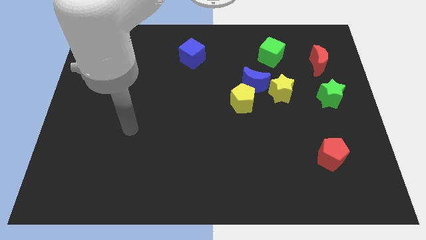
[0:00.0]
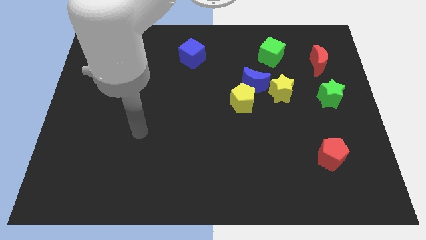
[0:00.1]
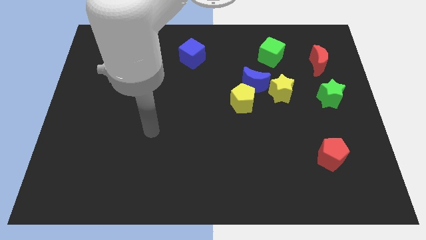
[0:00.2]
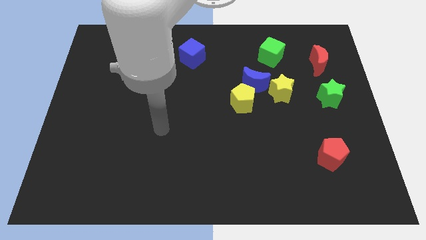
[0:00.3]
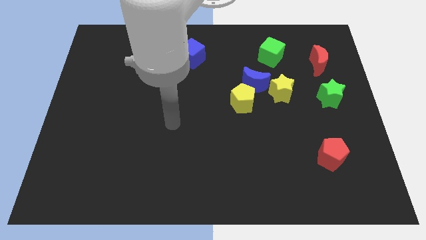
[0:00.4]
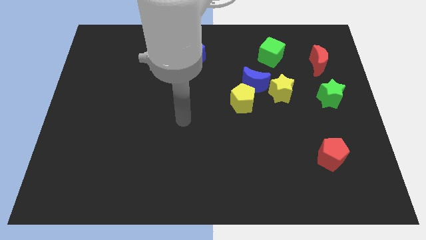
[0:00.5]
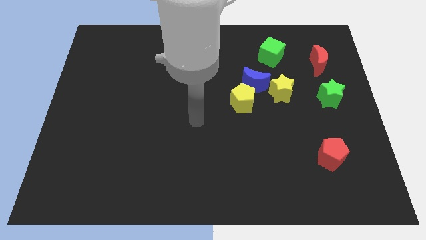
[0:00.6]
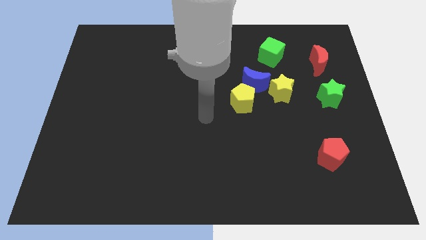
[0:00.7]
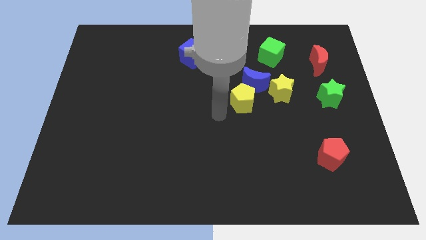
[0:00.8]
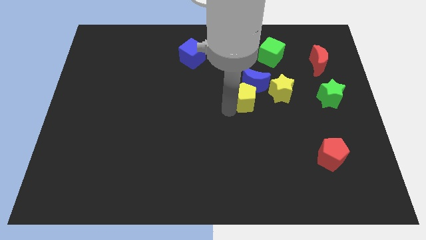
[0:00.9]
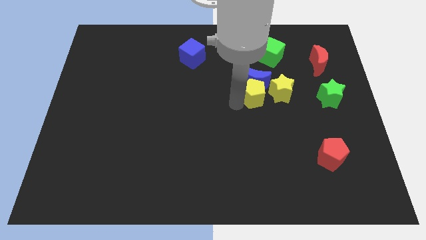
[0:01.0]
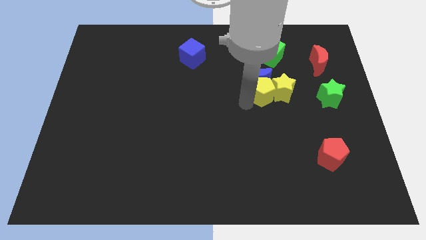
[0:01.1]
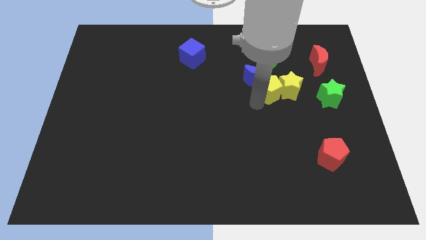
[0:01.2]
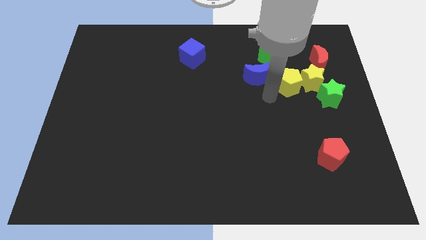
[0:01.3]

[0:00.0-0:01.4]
separate the blue moon from the yellow pentagon and yellow star

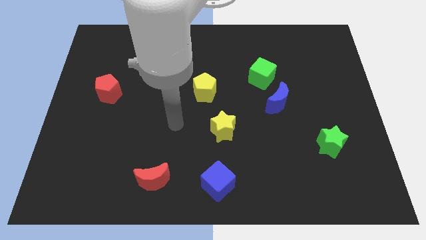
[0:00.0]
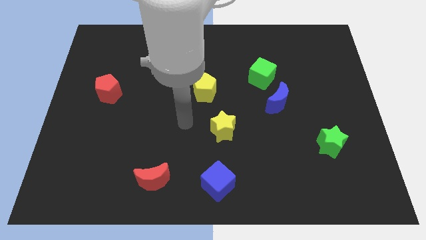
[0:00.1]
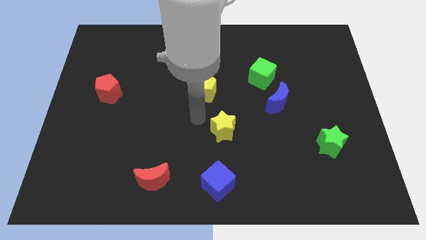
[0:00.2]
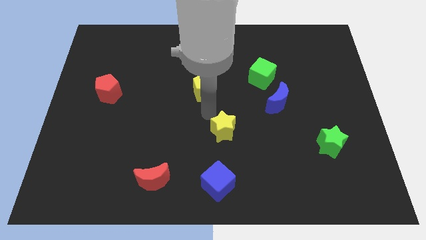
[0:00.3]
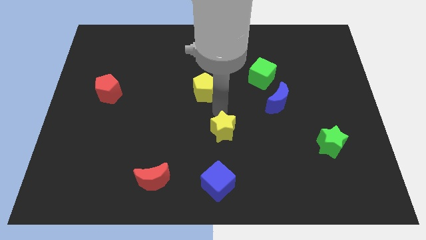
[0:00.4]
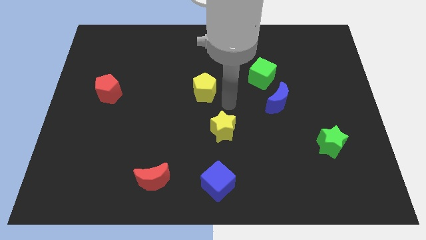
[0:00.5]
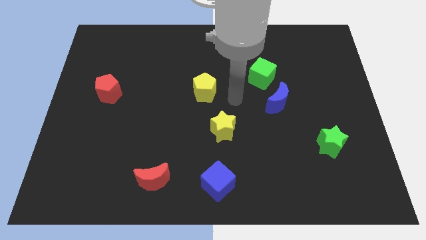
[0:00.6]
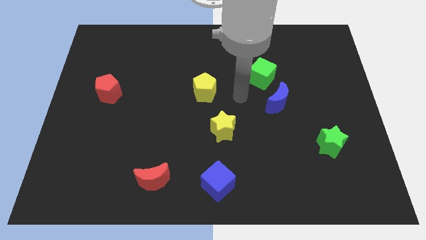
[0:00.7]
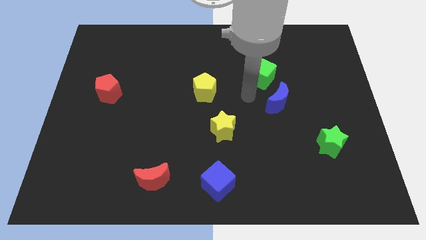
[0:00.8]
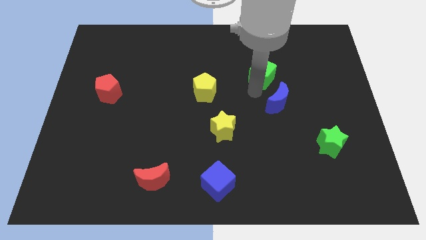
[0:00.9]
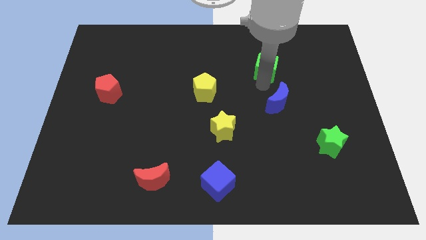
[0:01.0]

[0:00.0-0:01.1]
move the blue moon away from the green cube

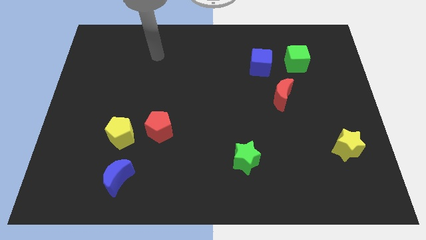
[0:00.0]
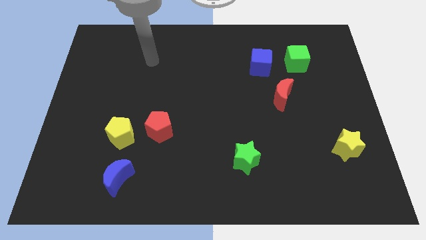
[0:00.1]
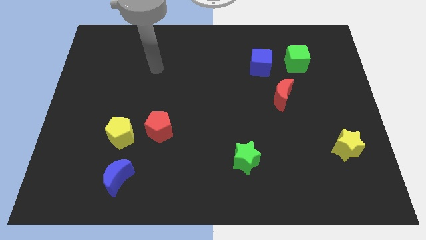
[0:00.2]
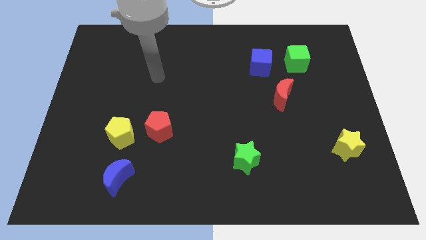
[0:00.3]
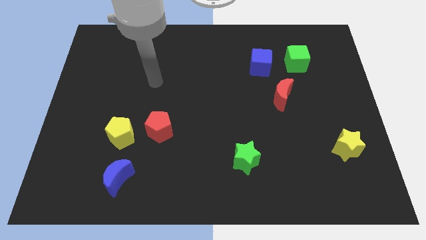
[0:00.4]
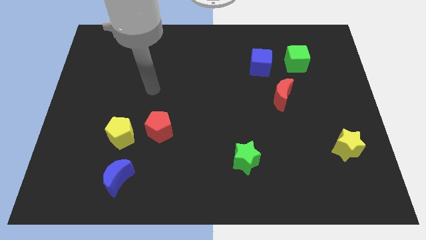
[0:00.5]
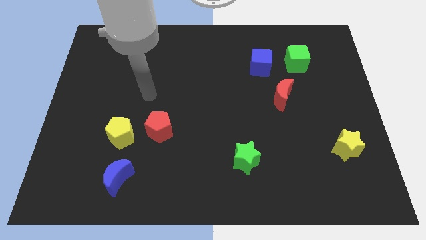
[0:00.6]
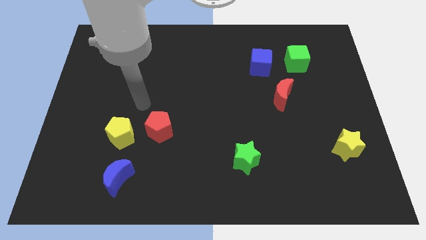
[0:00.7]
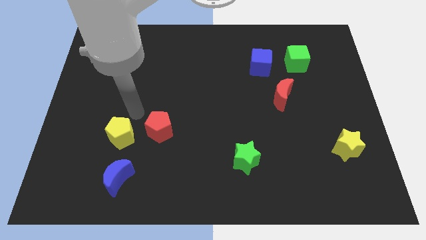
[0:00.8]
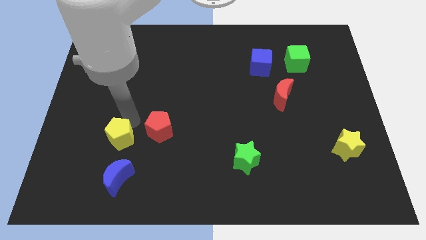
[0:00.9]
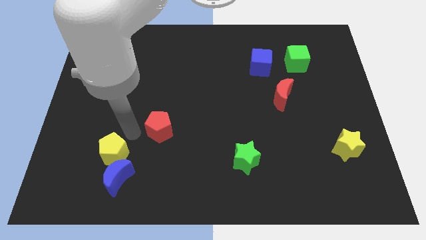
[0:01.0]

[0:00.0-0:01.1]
separate the red pentagon from the yellow pentagon

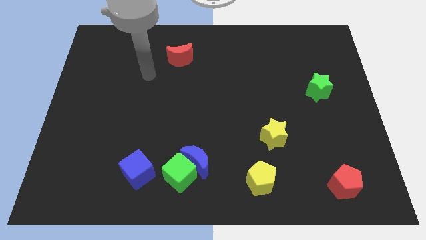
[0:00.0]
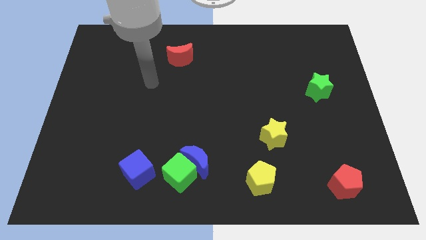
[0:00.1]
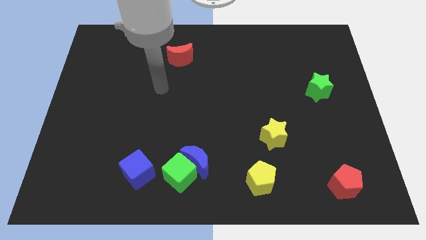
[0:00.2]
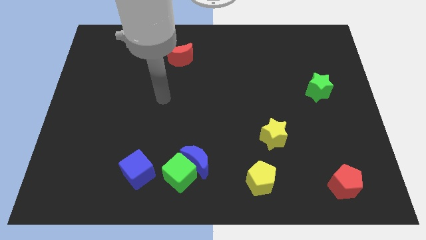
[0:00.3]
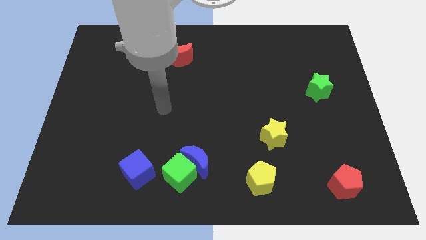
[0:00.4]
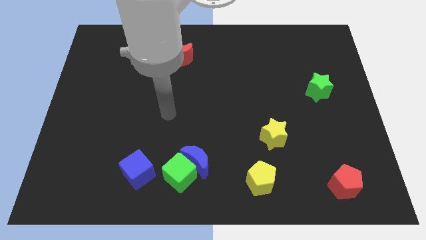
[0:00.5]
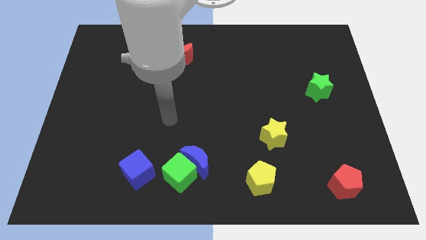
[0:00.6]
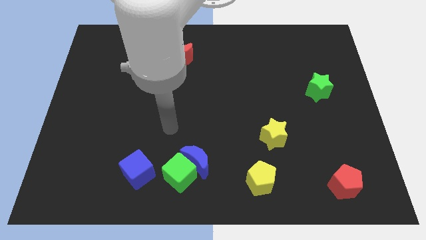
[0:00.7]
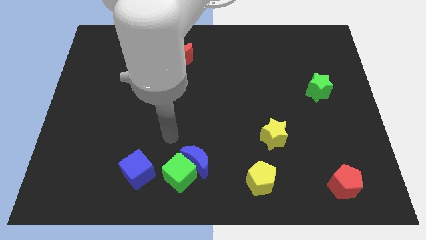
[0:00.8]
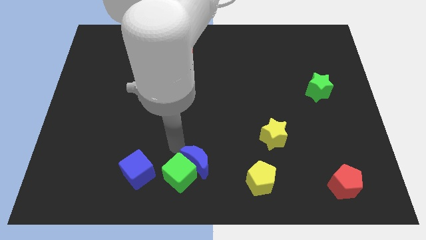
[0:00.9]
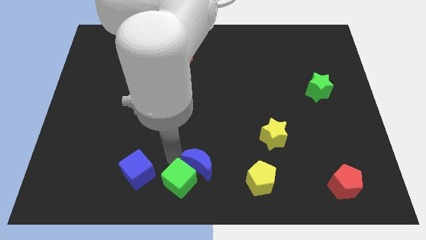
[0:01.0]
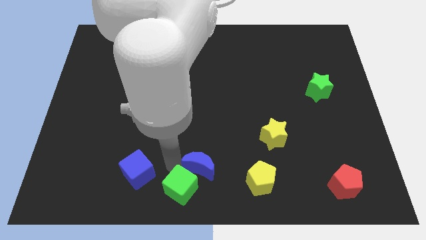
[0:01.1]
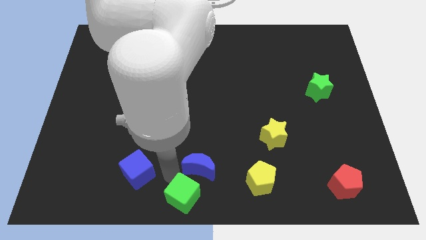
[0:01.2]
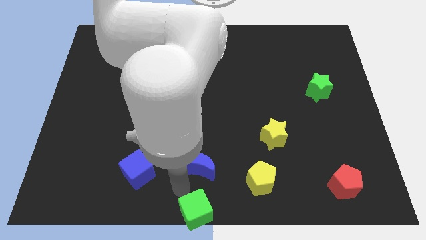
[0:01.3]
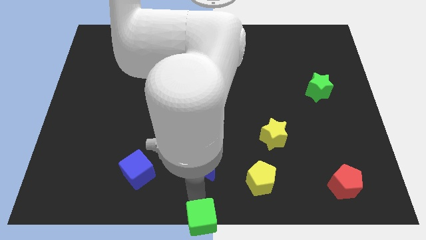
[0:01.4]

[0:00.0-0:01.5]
separate the blue moon from the green cube

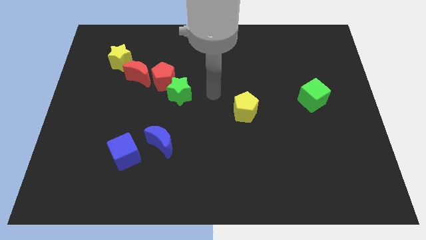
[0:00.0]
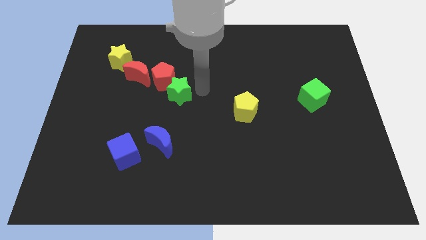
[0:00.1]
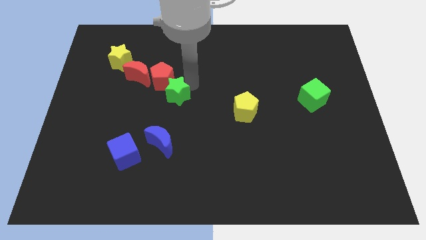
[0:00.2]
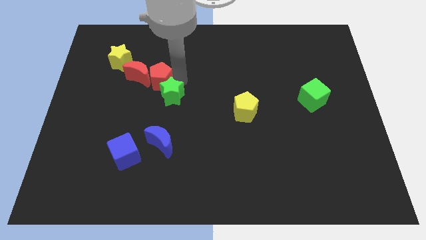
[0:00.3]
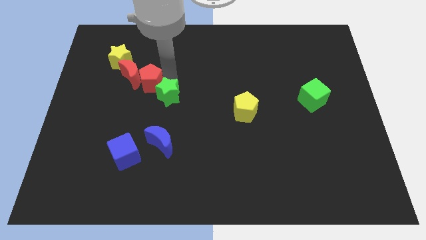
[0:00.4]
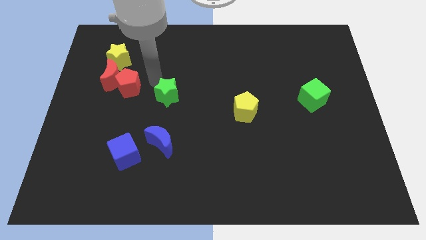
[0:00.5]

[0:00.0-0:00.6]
separate the green star from the red pentagon

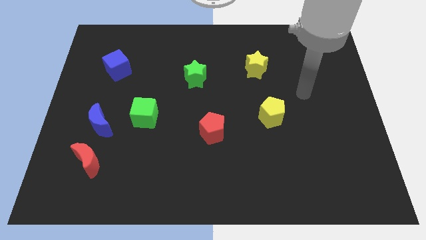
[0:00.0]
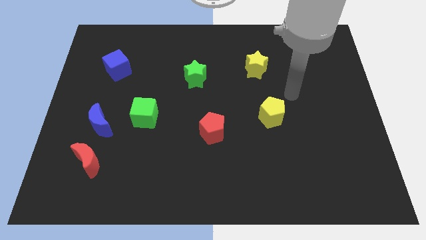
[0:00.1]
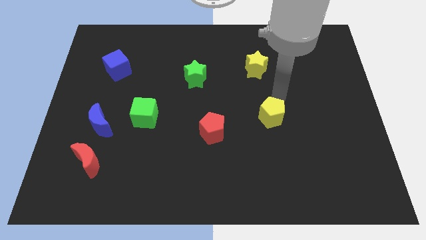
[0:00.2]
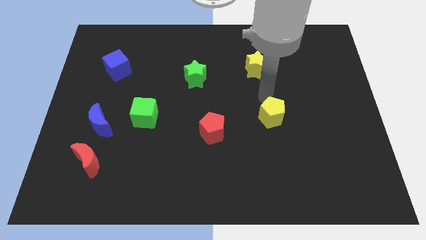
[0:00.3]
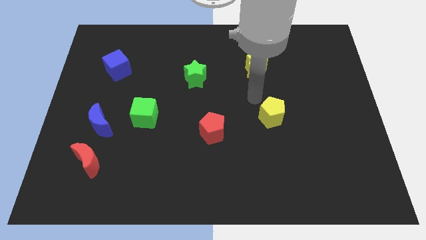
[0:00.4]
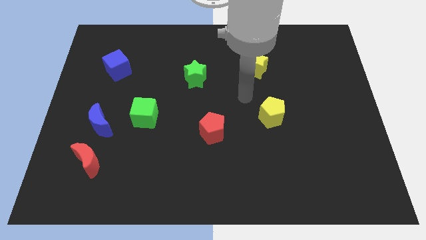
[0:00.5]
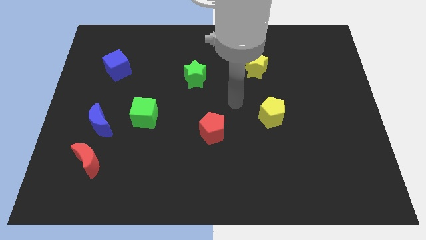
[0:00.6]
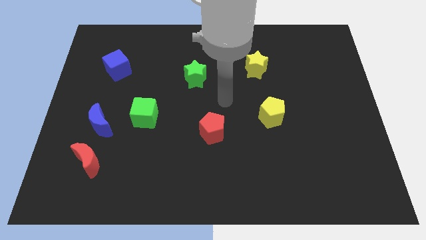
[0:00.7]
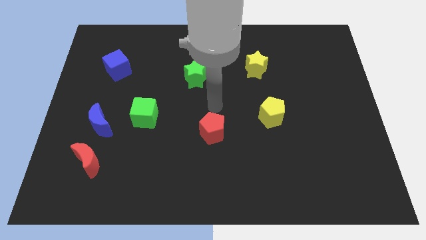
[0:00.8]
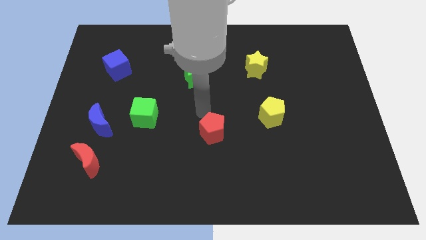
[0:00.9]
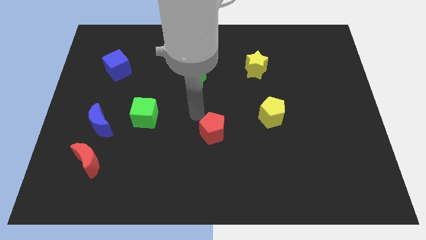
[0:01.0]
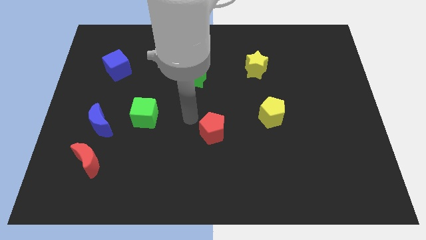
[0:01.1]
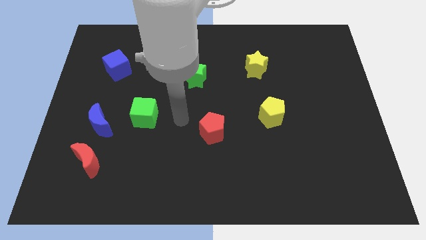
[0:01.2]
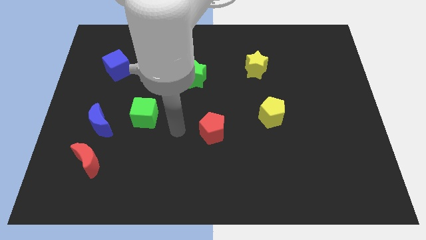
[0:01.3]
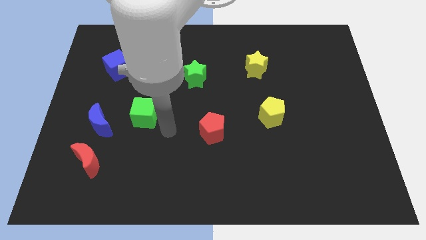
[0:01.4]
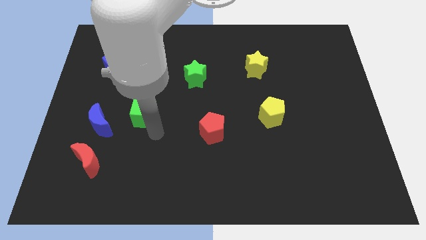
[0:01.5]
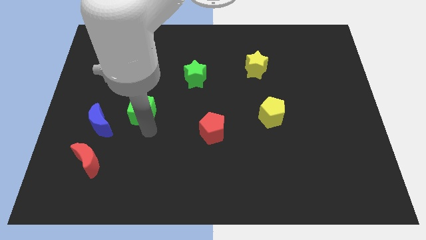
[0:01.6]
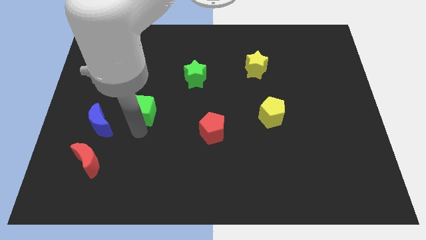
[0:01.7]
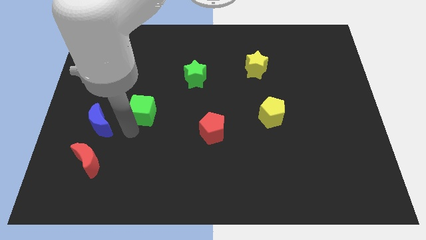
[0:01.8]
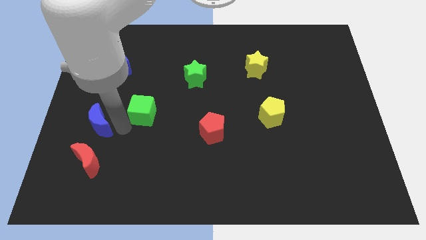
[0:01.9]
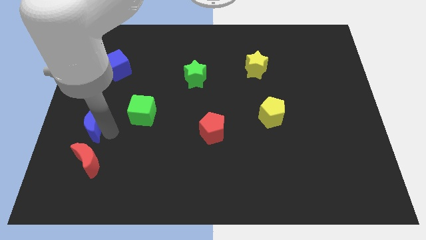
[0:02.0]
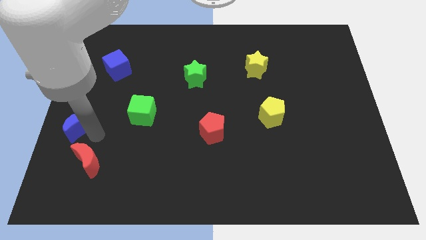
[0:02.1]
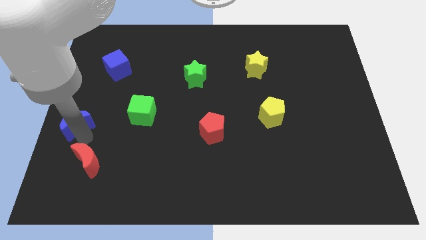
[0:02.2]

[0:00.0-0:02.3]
separate the red moon from the blue moon

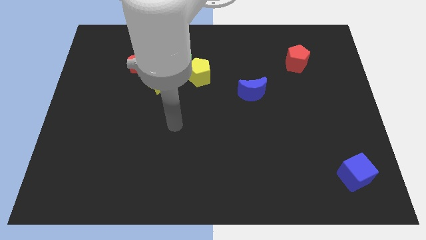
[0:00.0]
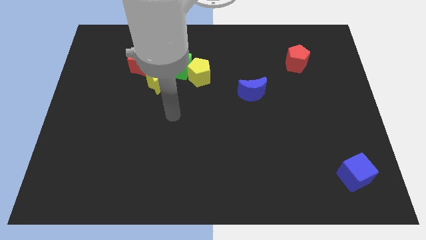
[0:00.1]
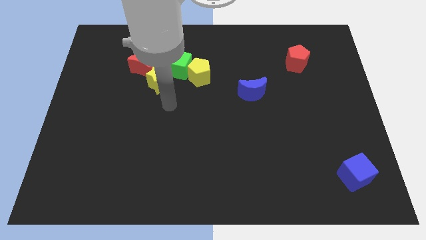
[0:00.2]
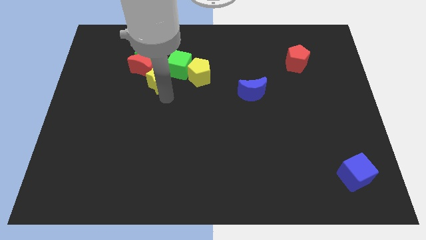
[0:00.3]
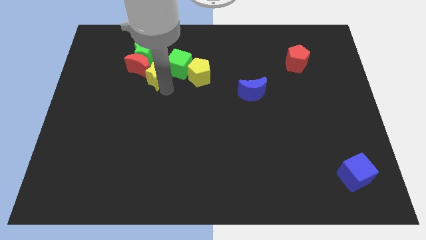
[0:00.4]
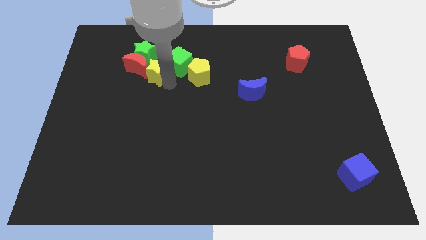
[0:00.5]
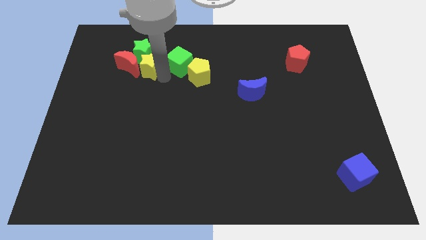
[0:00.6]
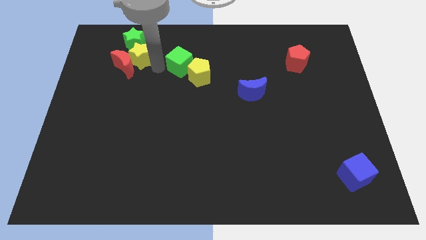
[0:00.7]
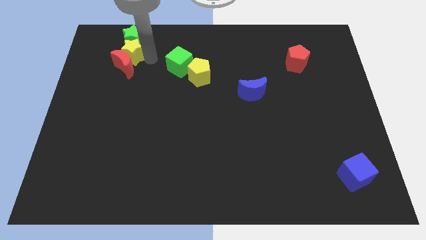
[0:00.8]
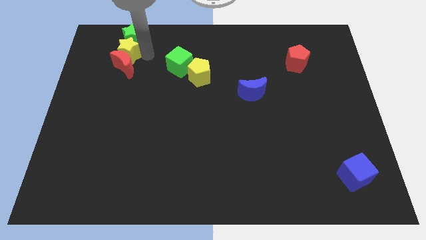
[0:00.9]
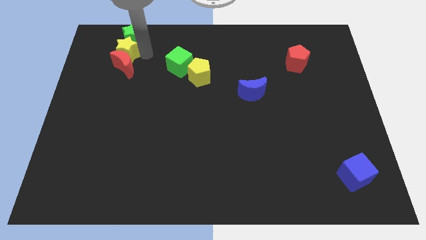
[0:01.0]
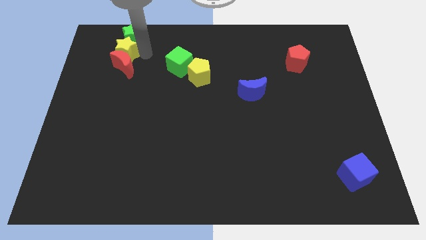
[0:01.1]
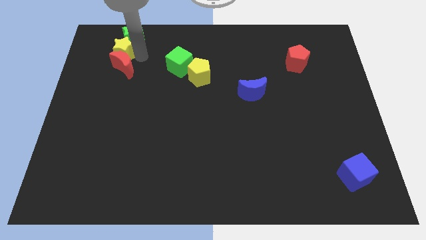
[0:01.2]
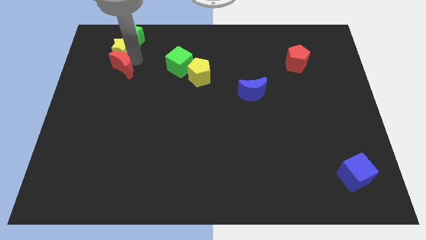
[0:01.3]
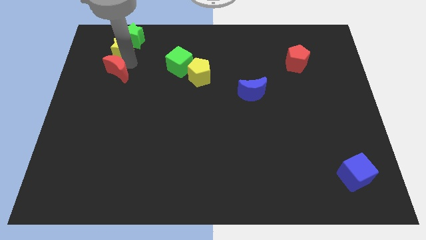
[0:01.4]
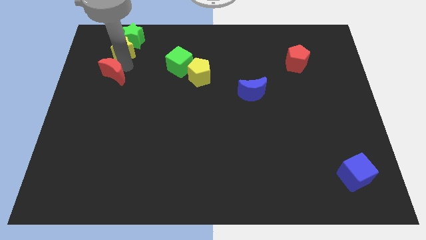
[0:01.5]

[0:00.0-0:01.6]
pull the red moon apart from the clump
